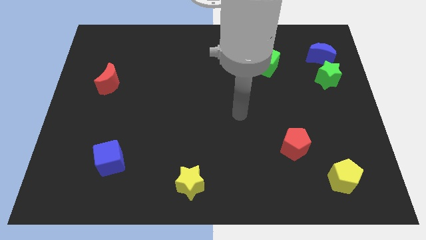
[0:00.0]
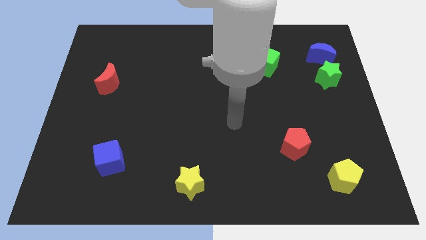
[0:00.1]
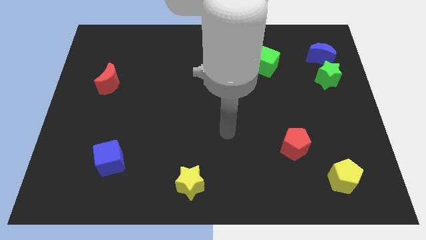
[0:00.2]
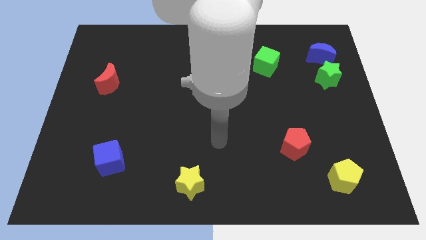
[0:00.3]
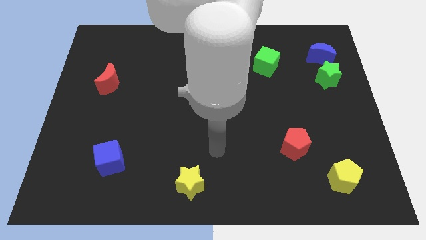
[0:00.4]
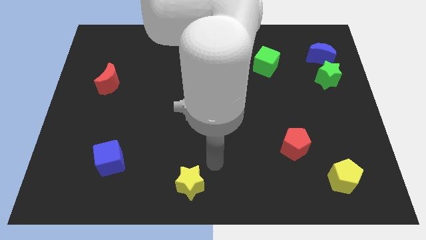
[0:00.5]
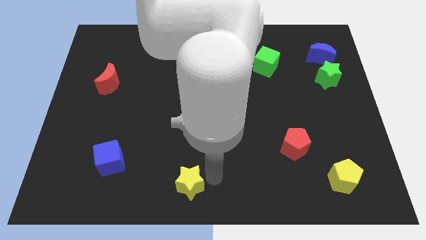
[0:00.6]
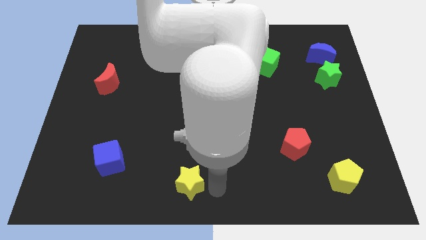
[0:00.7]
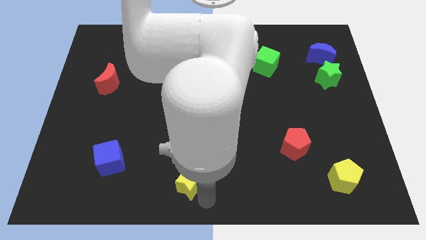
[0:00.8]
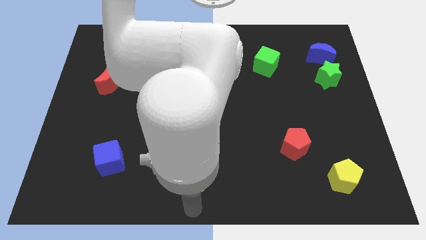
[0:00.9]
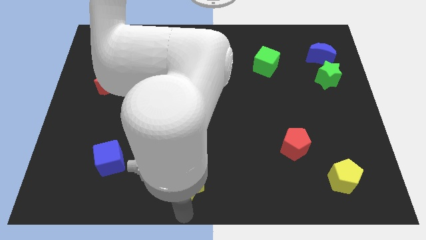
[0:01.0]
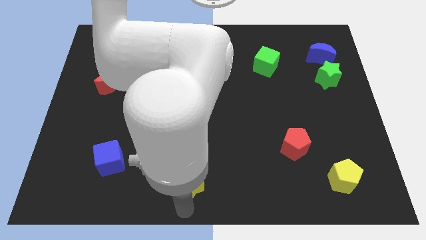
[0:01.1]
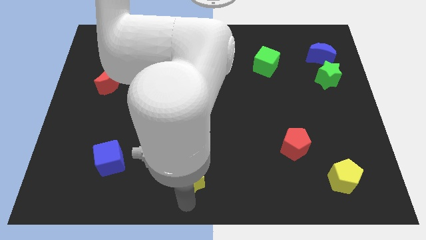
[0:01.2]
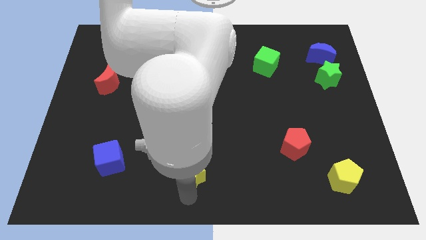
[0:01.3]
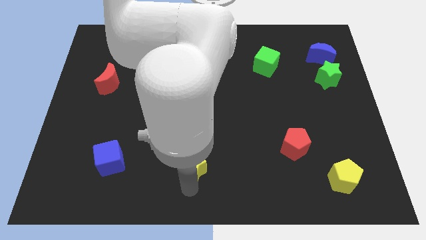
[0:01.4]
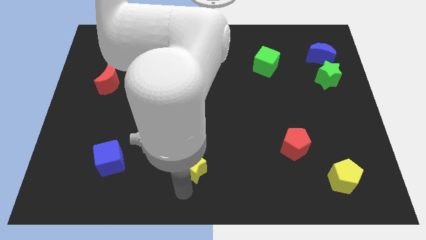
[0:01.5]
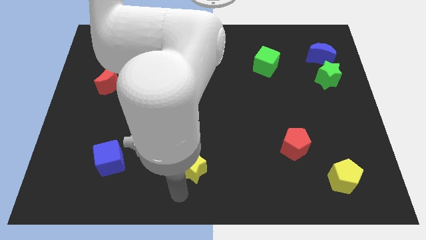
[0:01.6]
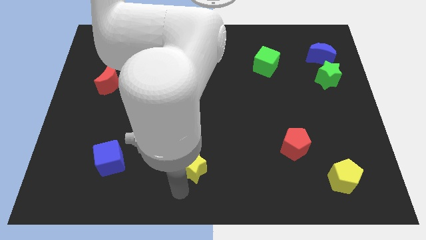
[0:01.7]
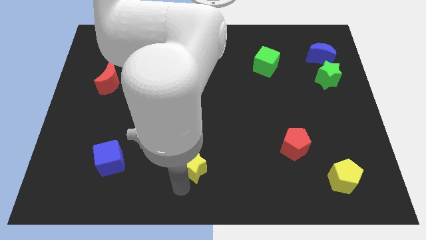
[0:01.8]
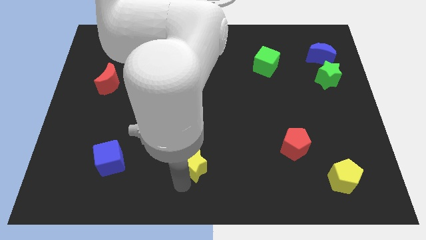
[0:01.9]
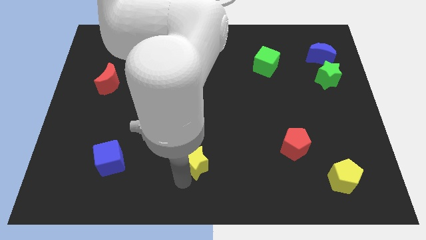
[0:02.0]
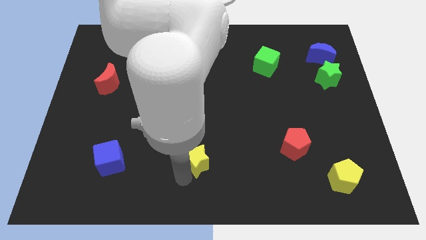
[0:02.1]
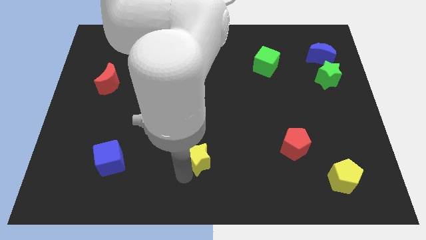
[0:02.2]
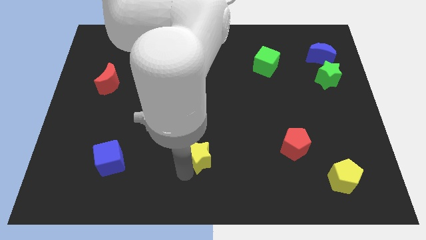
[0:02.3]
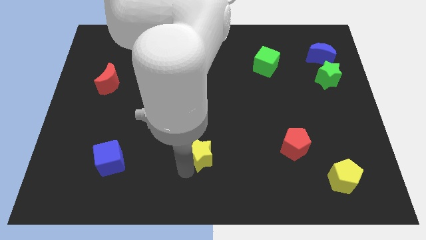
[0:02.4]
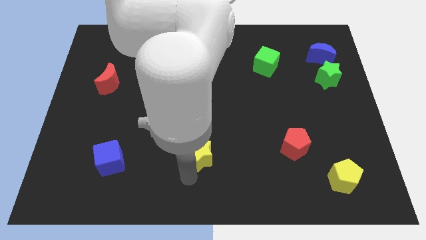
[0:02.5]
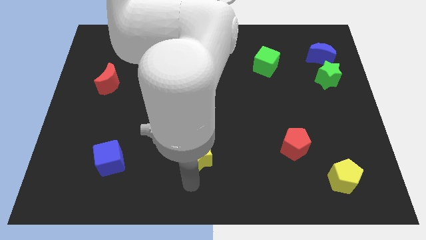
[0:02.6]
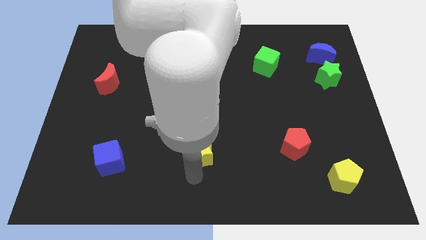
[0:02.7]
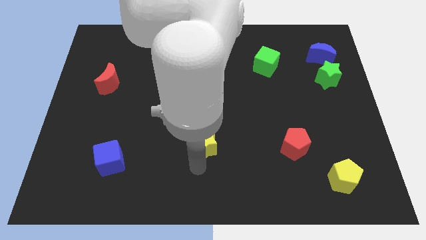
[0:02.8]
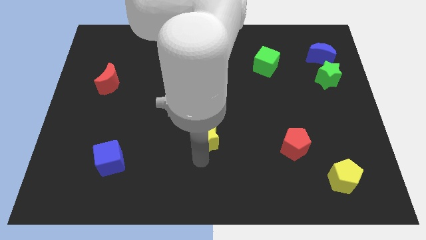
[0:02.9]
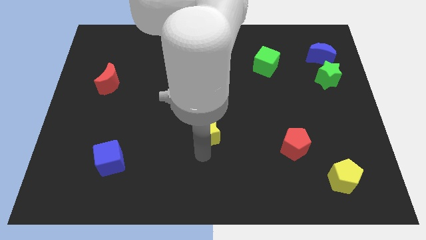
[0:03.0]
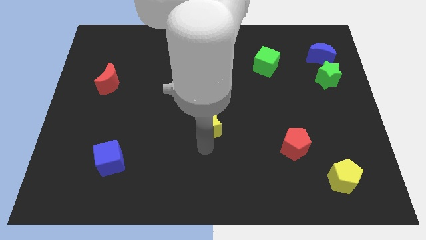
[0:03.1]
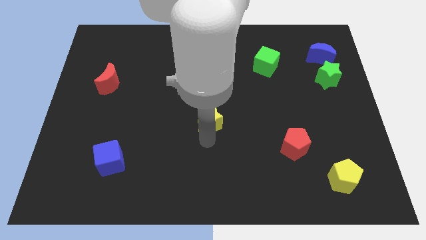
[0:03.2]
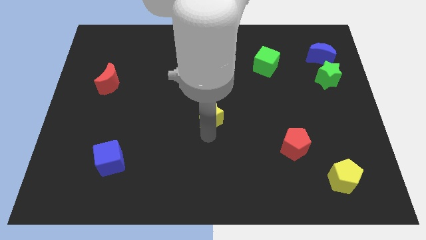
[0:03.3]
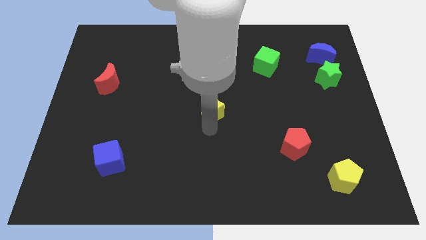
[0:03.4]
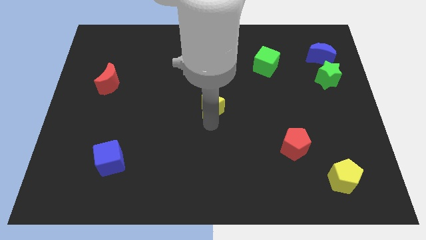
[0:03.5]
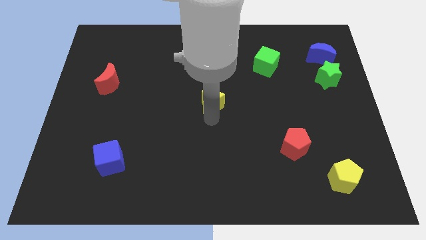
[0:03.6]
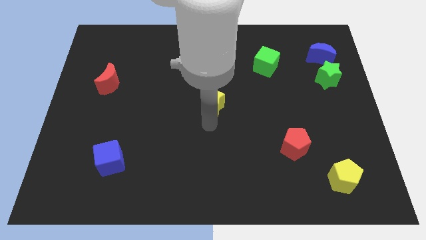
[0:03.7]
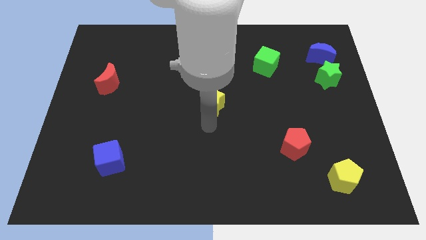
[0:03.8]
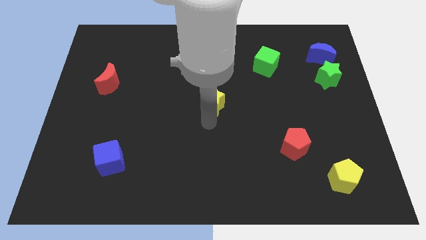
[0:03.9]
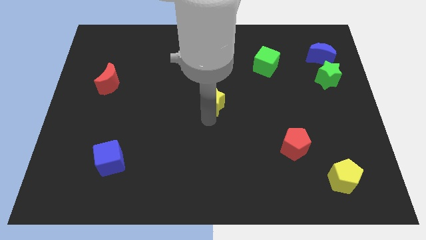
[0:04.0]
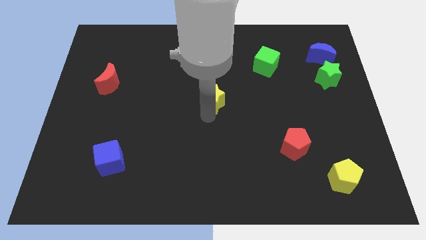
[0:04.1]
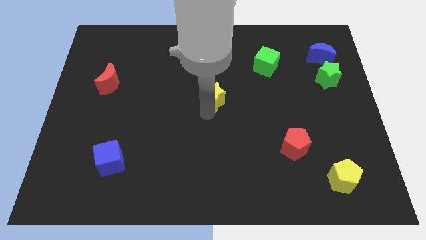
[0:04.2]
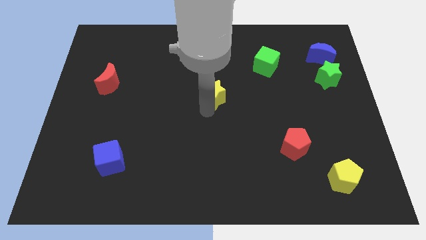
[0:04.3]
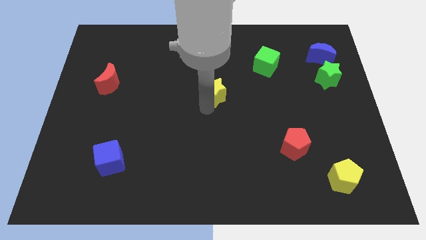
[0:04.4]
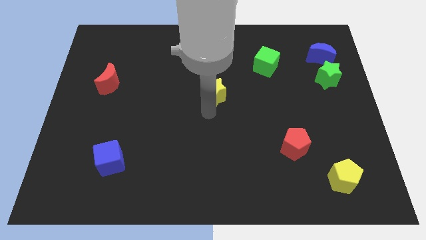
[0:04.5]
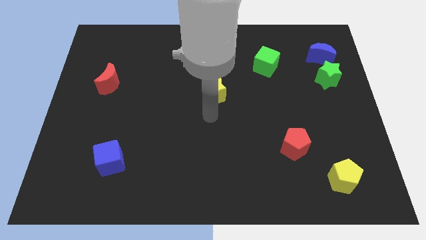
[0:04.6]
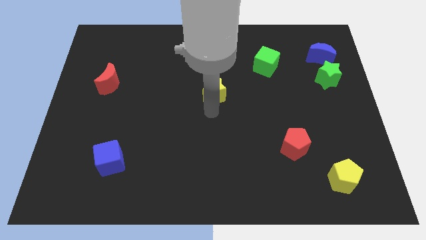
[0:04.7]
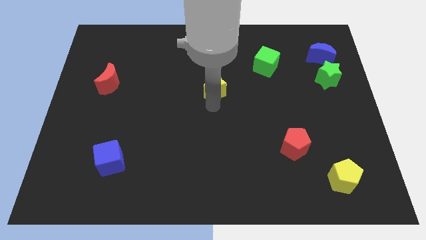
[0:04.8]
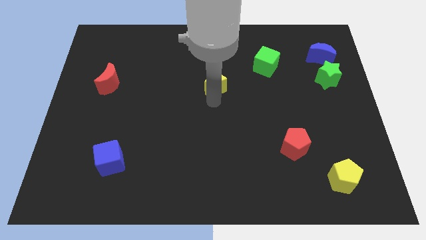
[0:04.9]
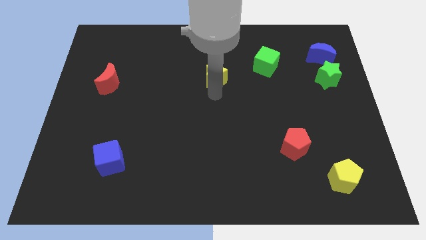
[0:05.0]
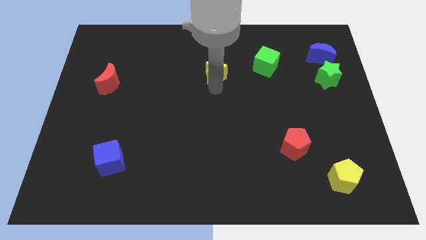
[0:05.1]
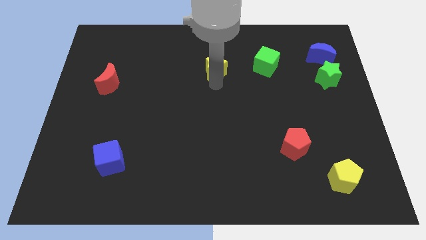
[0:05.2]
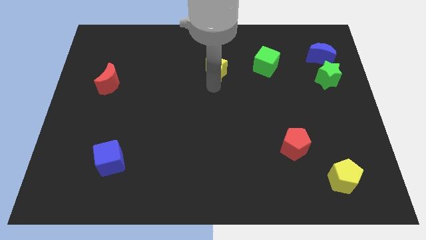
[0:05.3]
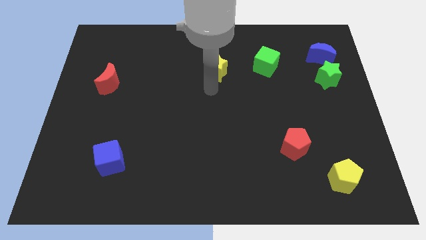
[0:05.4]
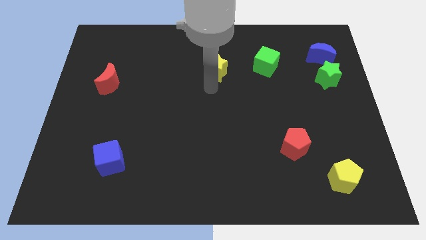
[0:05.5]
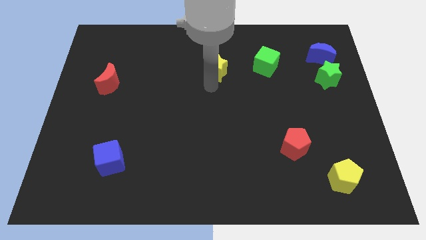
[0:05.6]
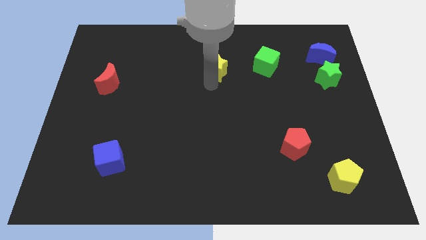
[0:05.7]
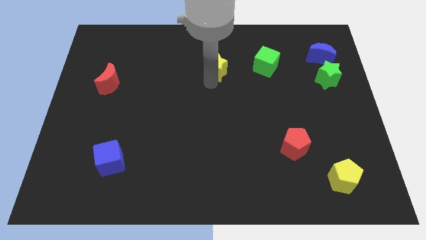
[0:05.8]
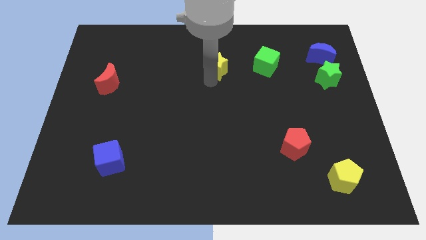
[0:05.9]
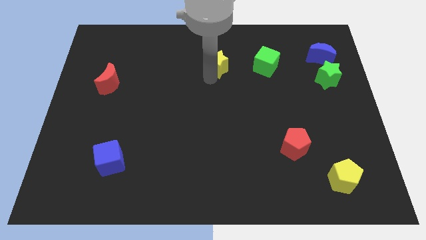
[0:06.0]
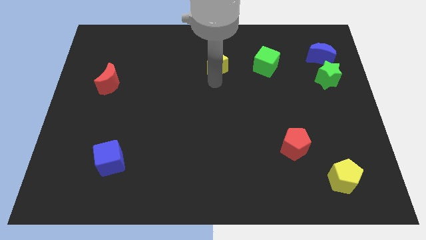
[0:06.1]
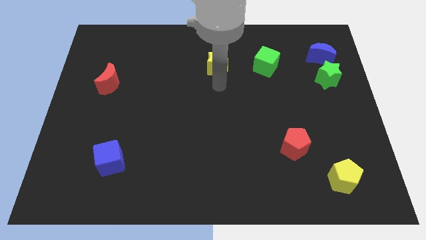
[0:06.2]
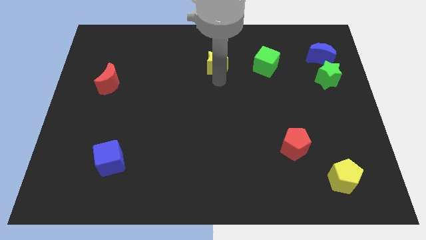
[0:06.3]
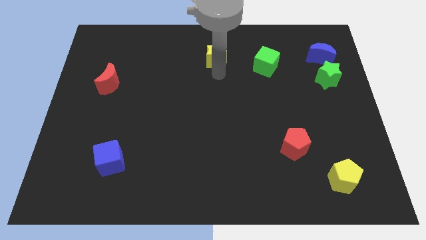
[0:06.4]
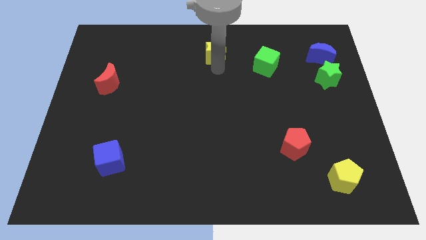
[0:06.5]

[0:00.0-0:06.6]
move the yellow star to the top side

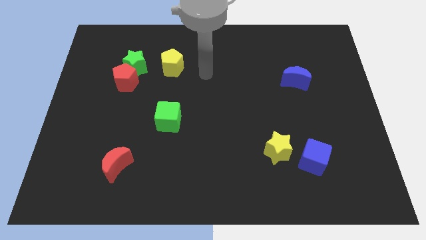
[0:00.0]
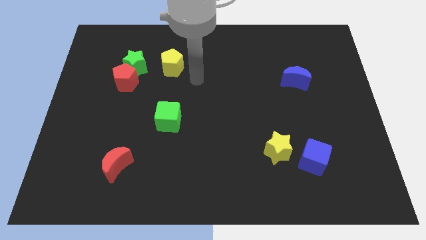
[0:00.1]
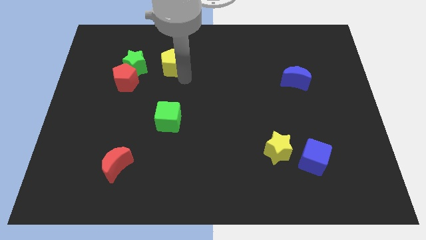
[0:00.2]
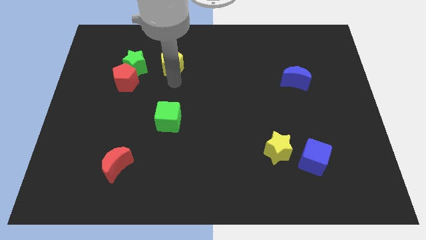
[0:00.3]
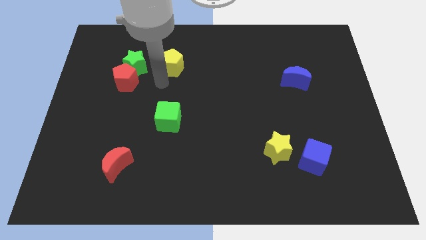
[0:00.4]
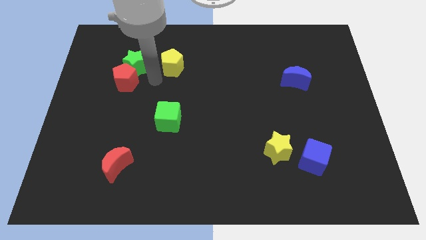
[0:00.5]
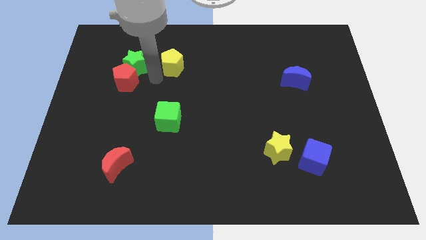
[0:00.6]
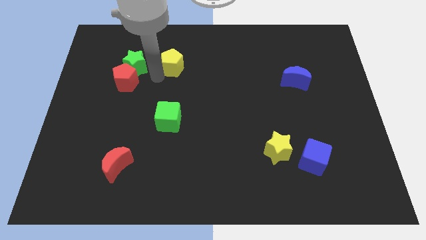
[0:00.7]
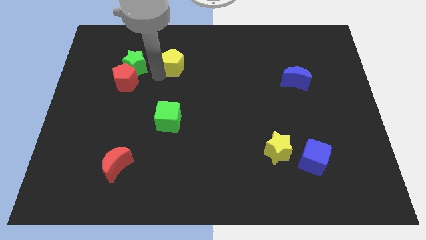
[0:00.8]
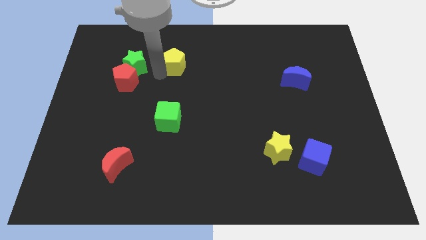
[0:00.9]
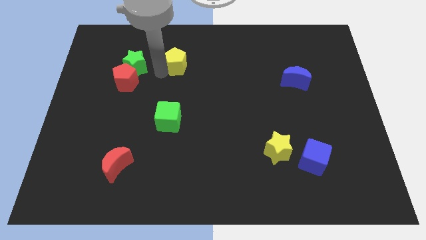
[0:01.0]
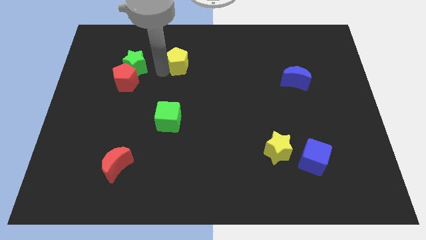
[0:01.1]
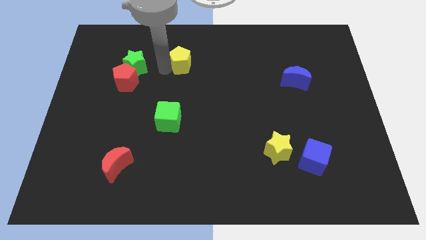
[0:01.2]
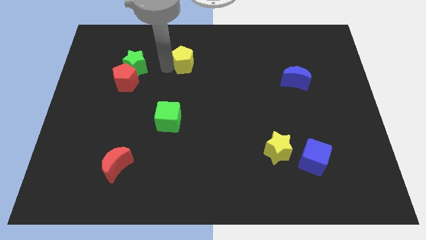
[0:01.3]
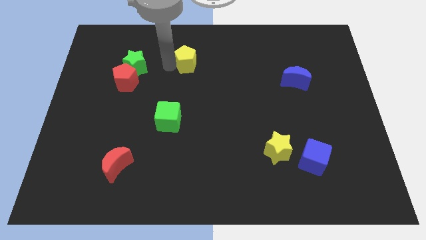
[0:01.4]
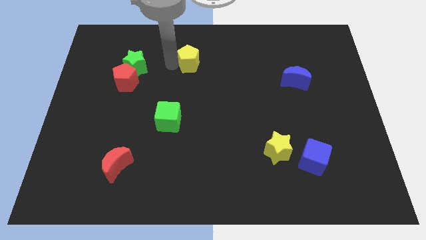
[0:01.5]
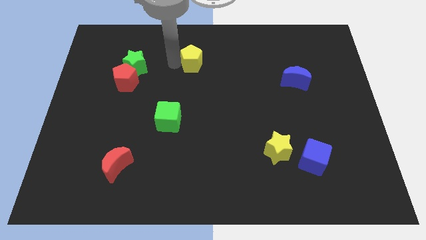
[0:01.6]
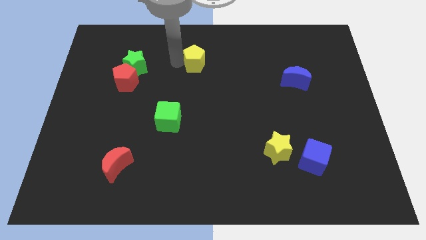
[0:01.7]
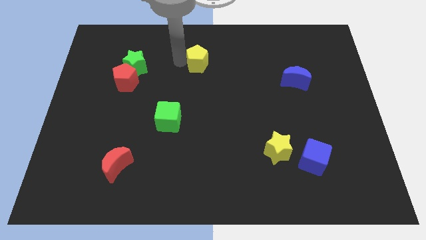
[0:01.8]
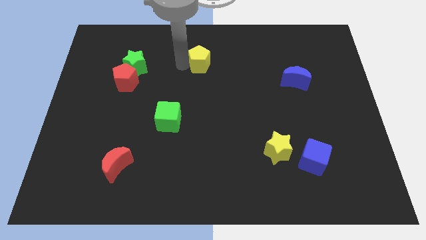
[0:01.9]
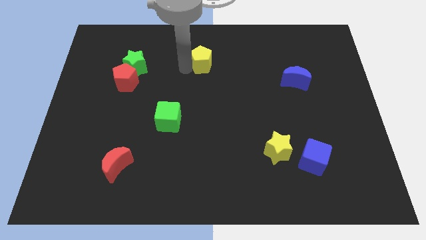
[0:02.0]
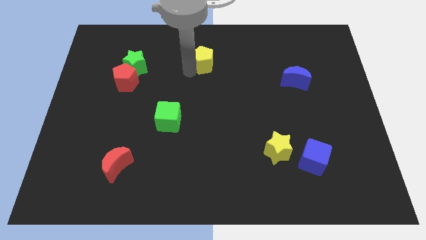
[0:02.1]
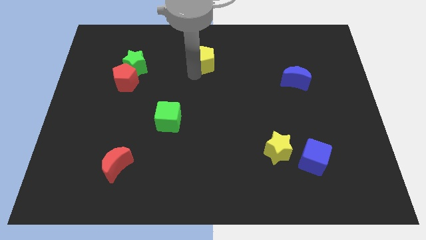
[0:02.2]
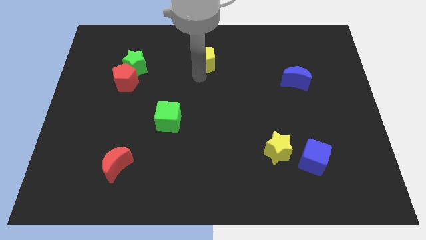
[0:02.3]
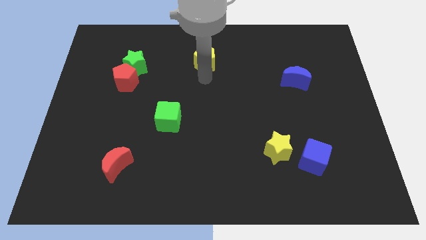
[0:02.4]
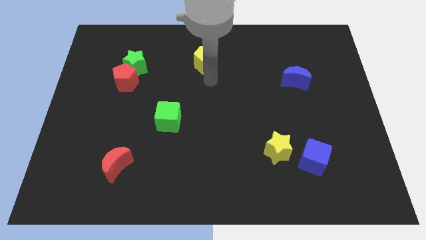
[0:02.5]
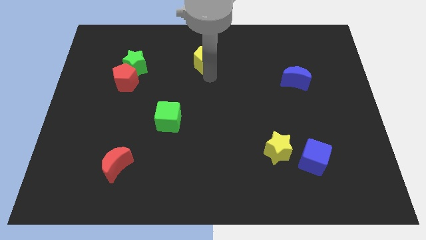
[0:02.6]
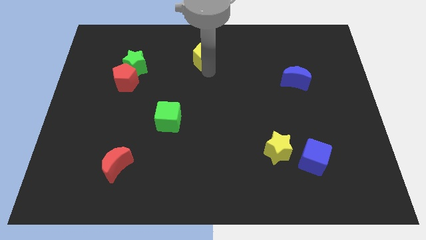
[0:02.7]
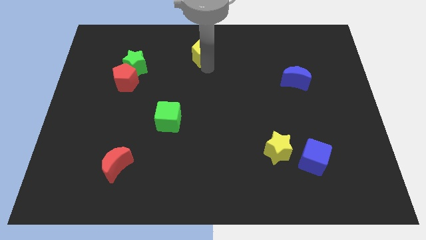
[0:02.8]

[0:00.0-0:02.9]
put the yellow pentagon to the top
